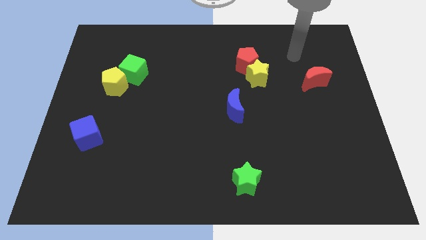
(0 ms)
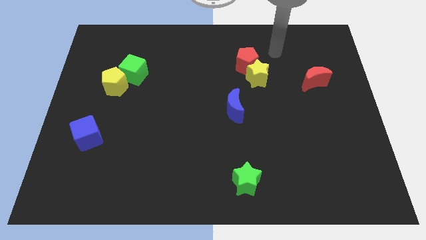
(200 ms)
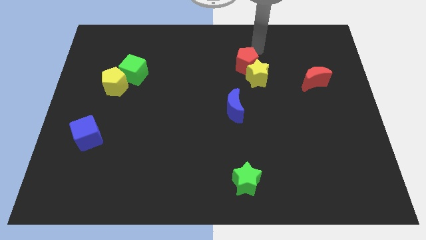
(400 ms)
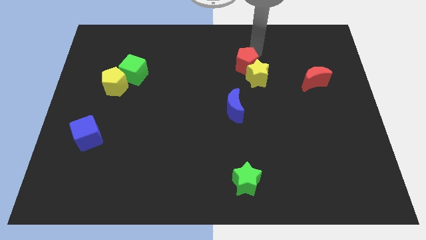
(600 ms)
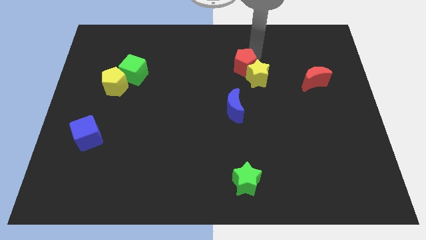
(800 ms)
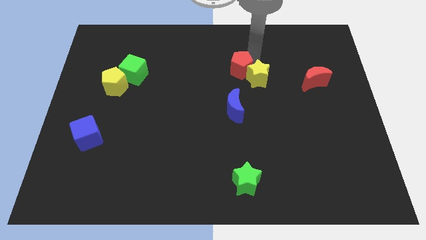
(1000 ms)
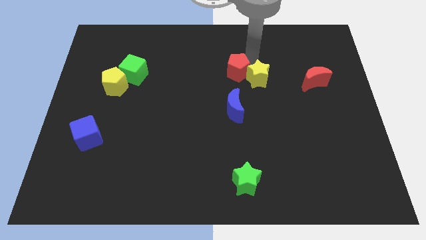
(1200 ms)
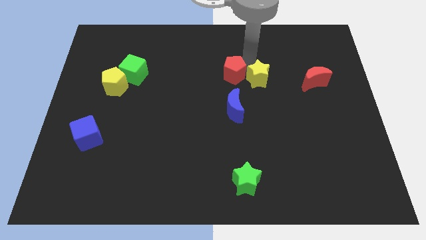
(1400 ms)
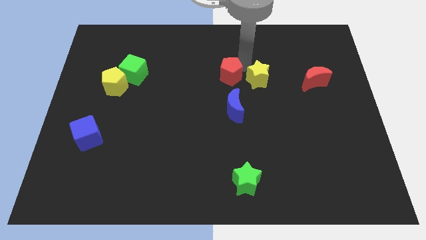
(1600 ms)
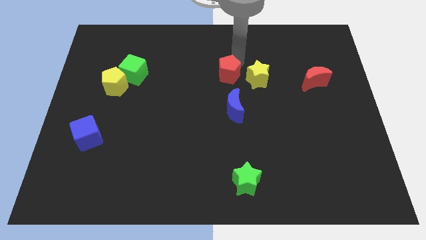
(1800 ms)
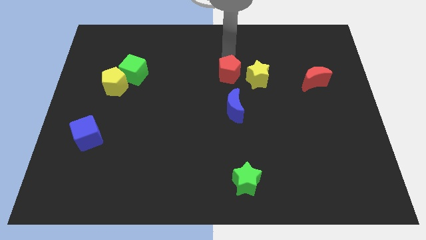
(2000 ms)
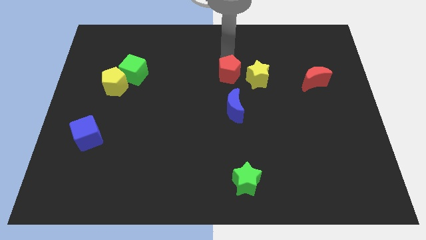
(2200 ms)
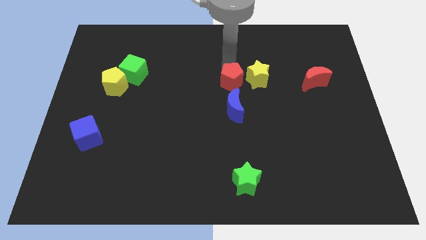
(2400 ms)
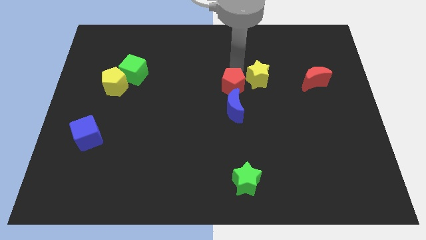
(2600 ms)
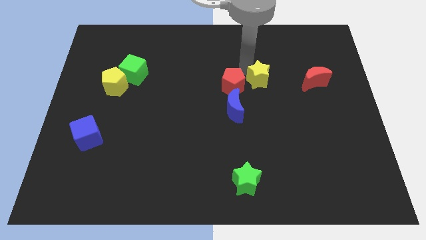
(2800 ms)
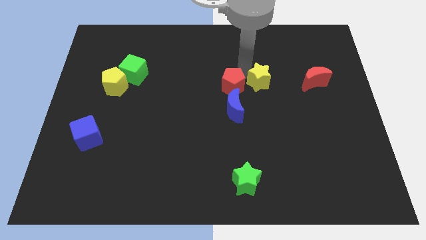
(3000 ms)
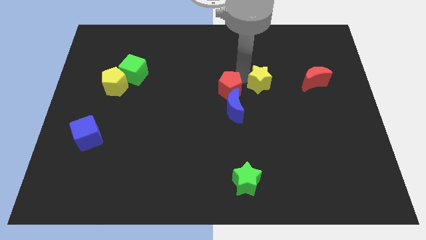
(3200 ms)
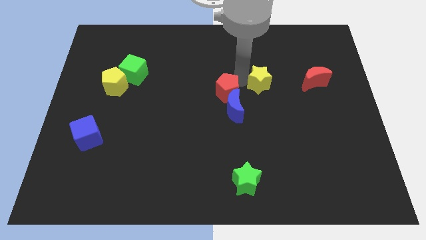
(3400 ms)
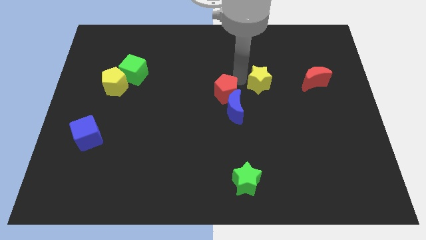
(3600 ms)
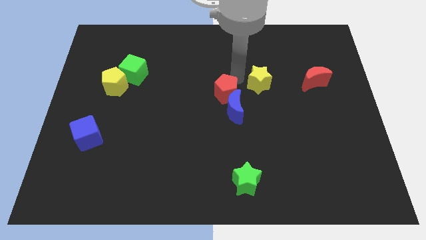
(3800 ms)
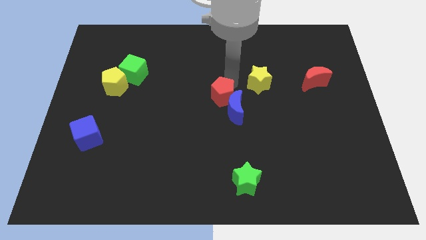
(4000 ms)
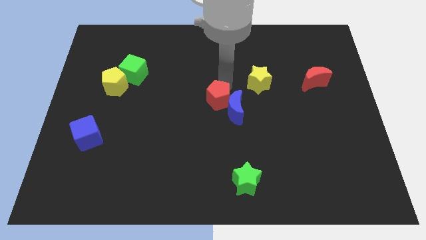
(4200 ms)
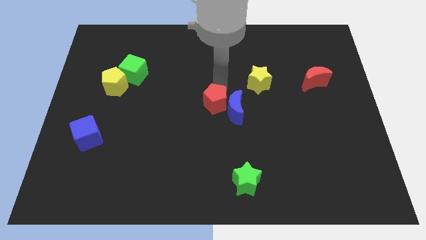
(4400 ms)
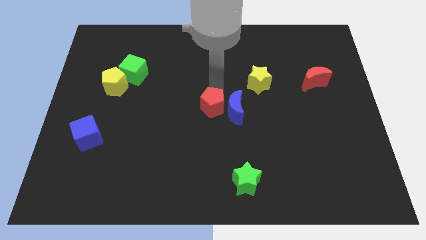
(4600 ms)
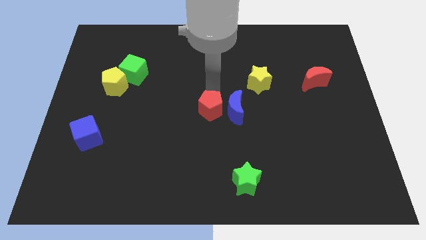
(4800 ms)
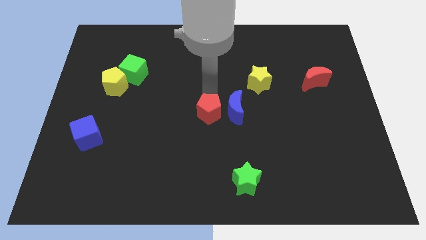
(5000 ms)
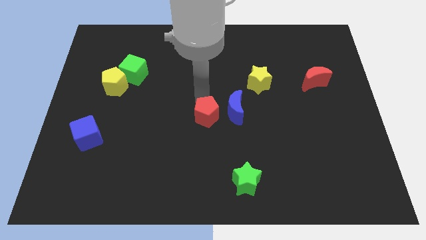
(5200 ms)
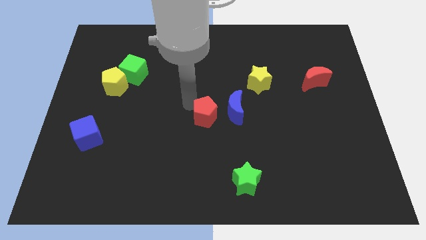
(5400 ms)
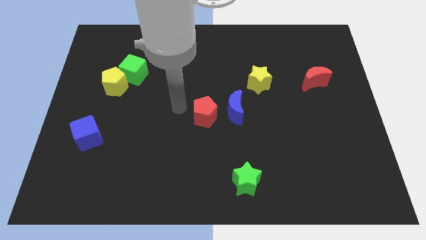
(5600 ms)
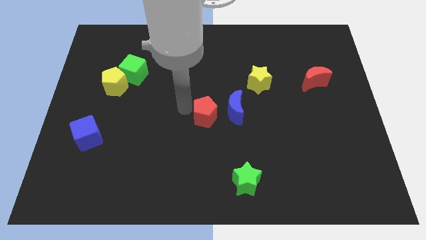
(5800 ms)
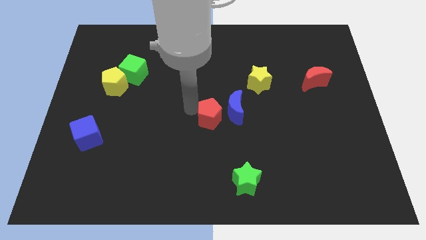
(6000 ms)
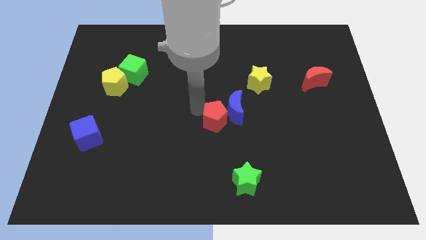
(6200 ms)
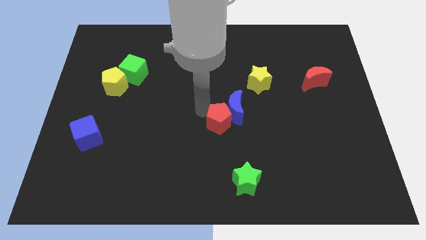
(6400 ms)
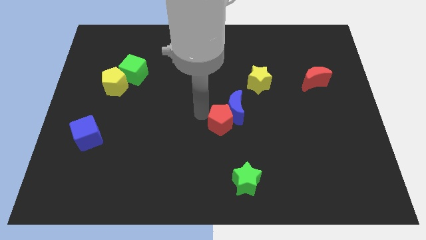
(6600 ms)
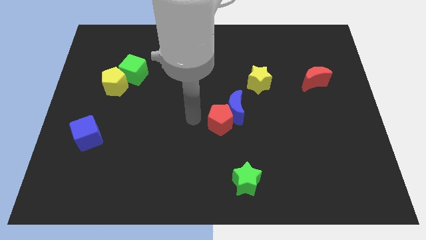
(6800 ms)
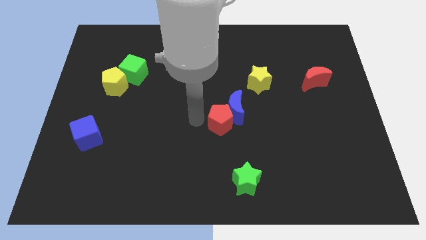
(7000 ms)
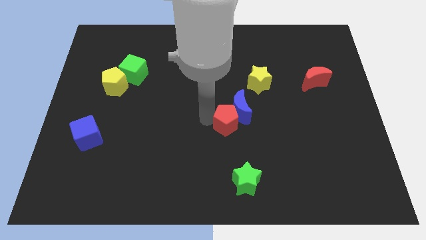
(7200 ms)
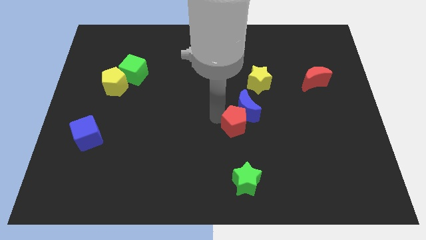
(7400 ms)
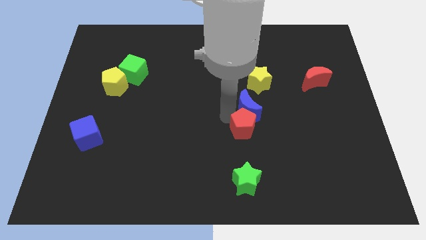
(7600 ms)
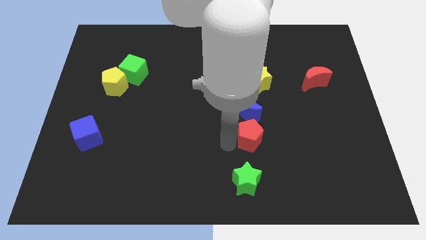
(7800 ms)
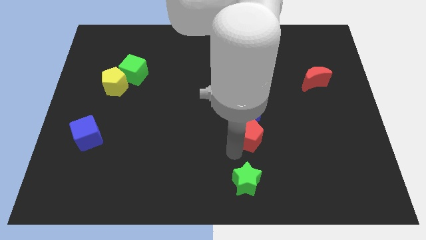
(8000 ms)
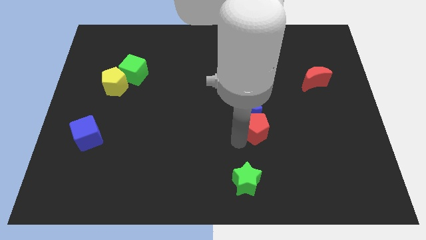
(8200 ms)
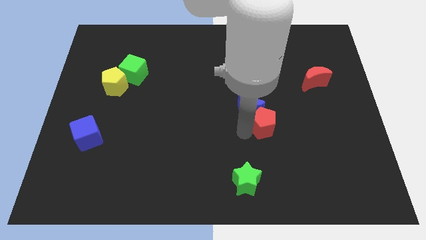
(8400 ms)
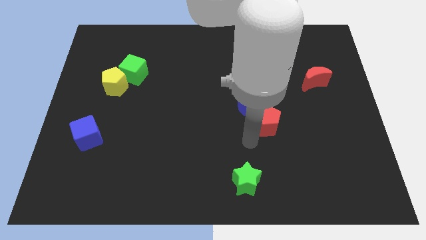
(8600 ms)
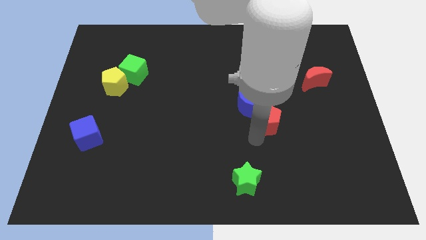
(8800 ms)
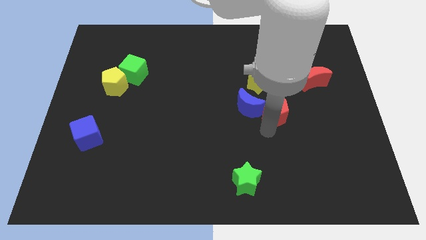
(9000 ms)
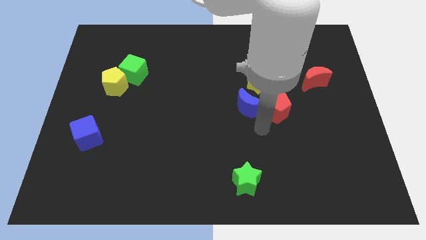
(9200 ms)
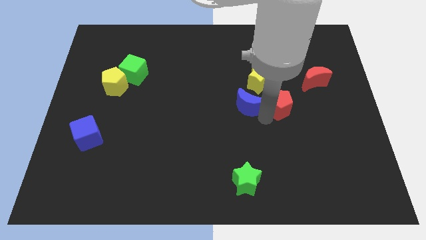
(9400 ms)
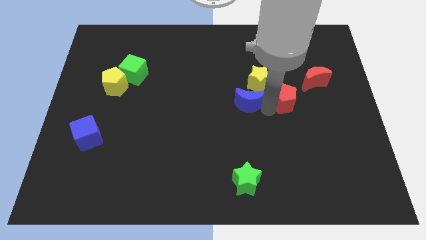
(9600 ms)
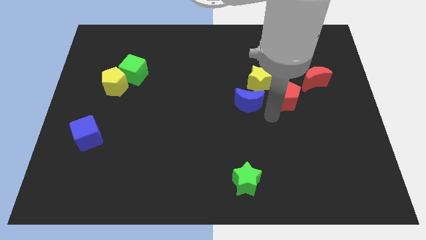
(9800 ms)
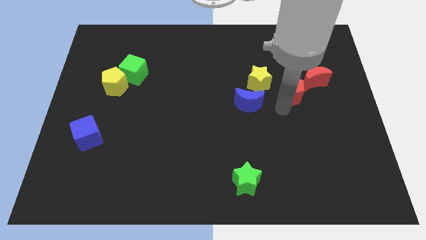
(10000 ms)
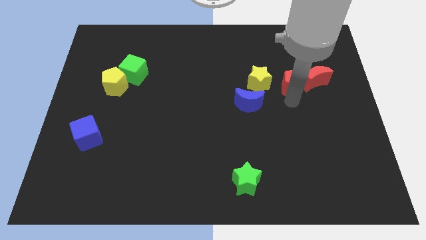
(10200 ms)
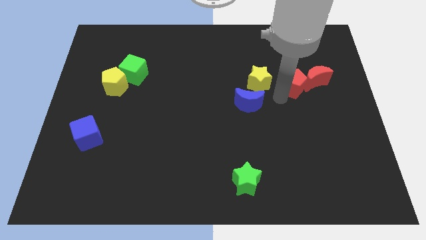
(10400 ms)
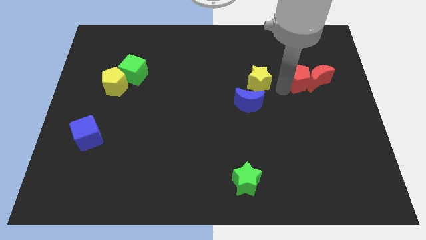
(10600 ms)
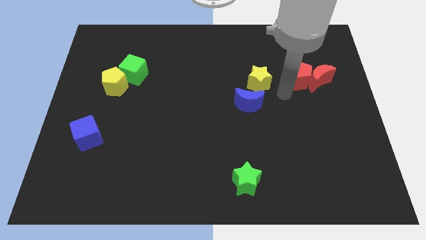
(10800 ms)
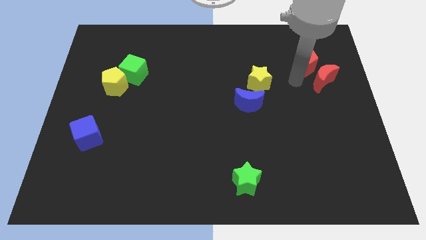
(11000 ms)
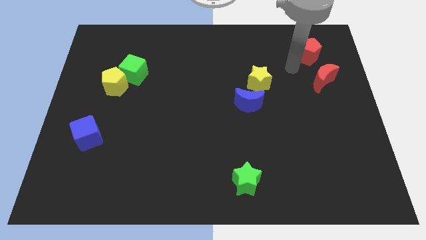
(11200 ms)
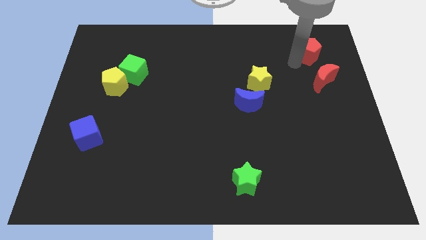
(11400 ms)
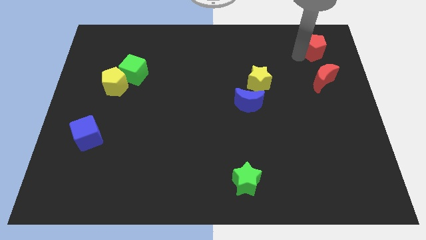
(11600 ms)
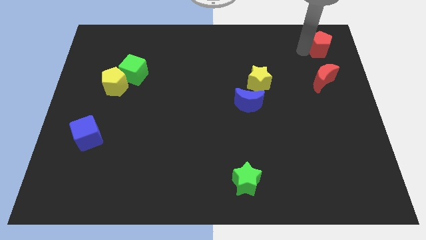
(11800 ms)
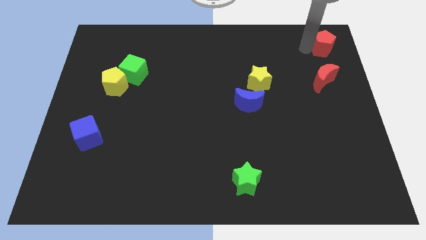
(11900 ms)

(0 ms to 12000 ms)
put the red pentagon to the upper right corner

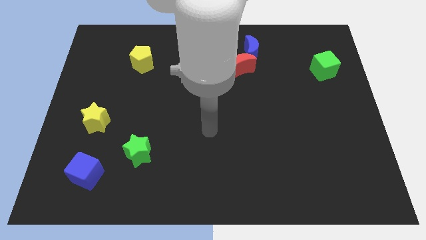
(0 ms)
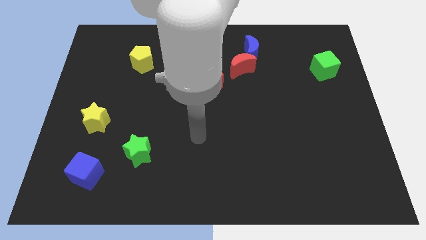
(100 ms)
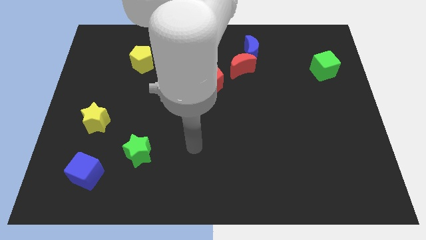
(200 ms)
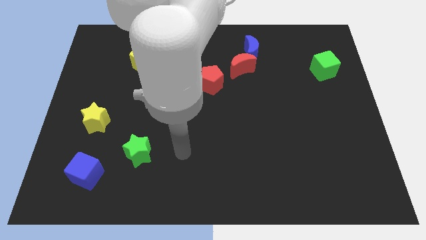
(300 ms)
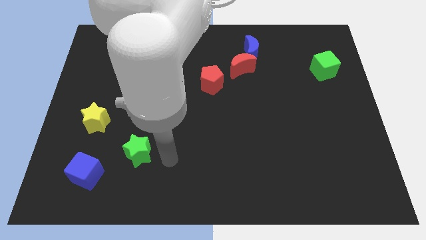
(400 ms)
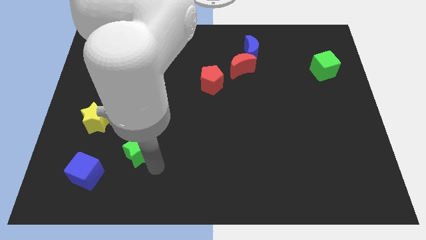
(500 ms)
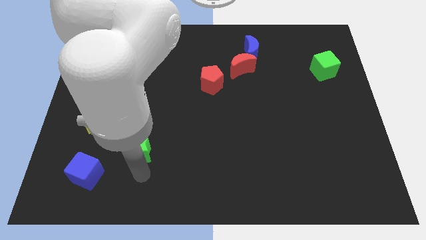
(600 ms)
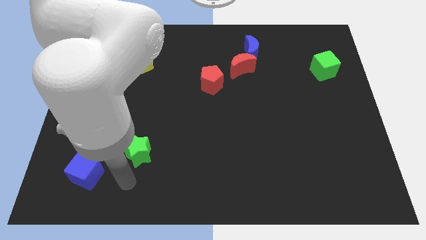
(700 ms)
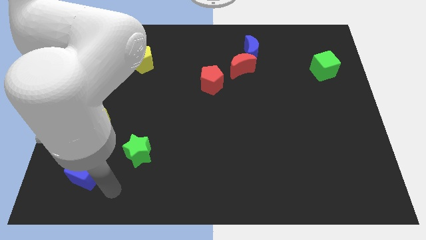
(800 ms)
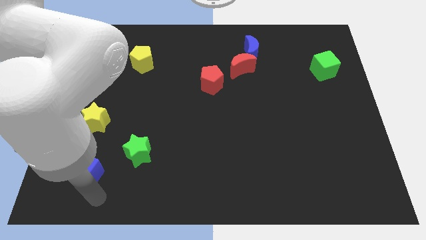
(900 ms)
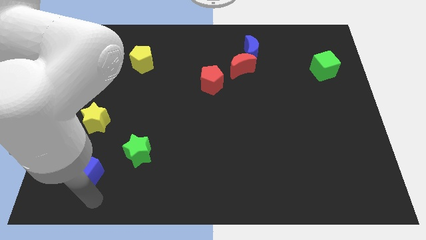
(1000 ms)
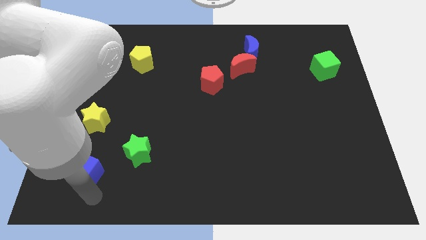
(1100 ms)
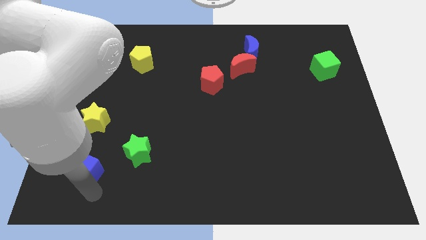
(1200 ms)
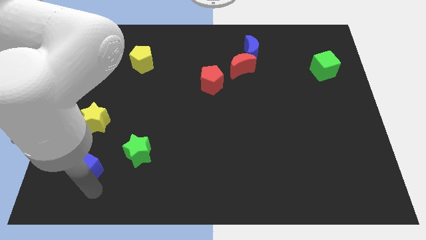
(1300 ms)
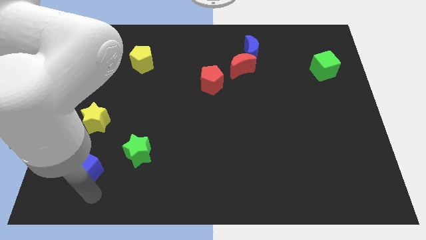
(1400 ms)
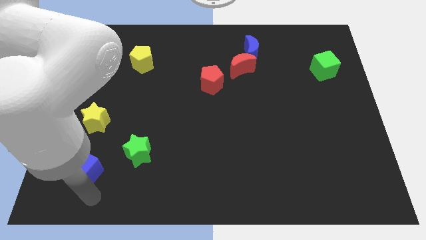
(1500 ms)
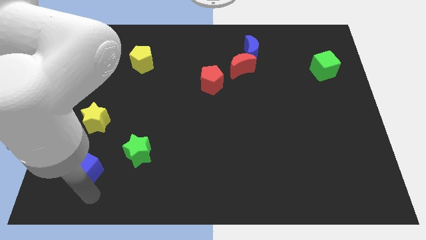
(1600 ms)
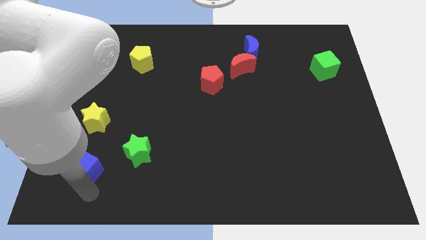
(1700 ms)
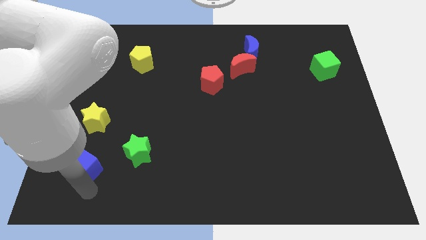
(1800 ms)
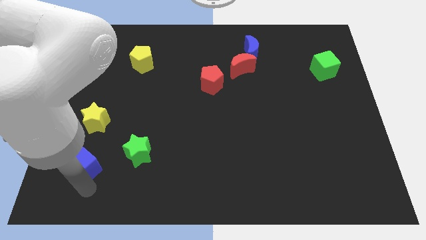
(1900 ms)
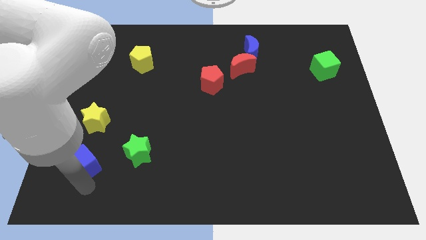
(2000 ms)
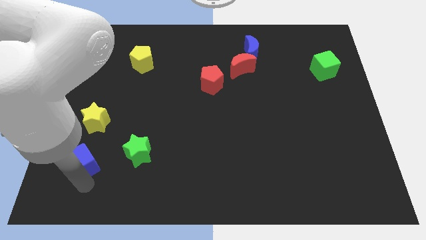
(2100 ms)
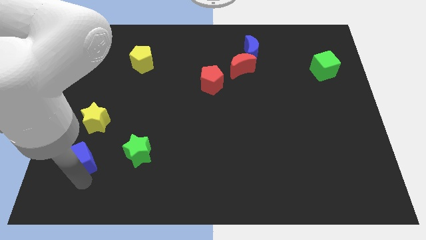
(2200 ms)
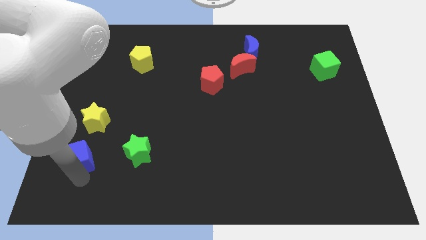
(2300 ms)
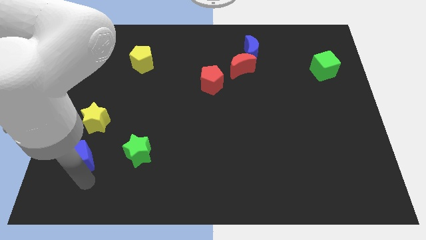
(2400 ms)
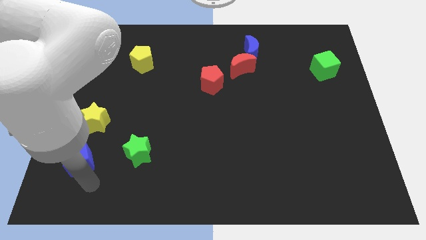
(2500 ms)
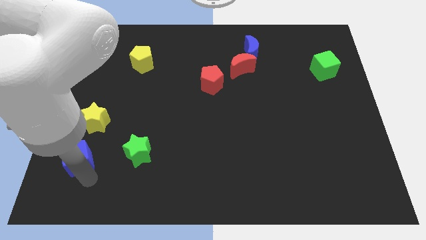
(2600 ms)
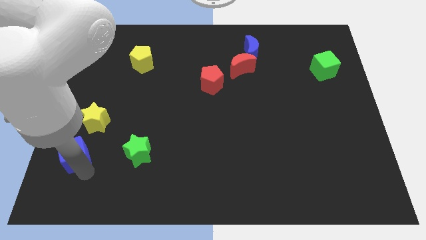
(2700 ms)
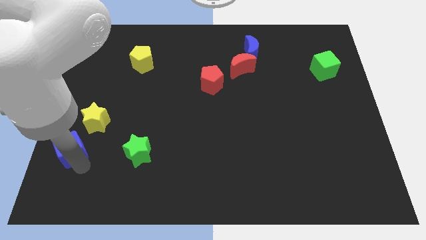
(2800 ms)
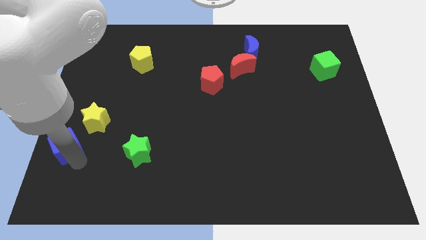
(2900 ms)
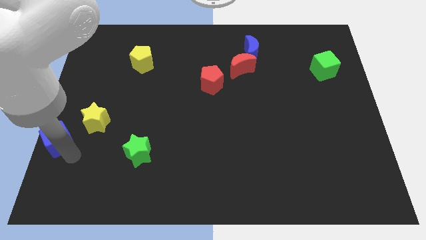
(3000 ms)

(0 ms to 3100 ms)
move the blue cube to the center left
